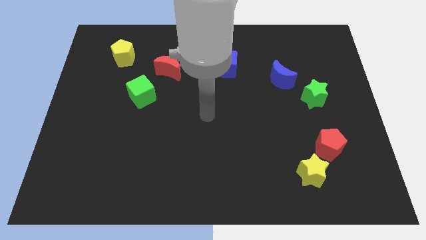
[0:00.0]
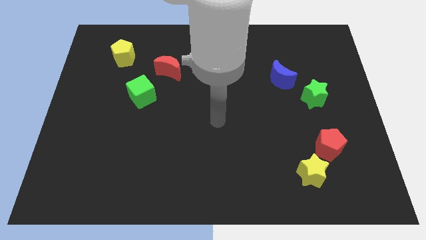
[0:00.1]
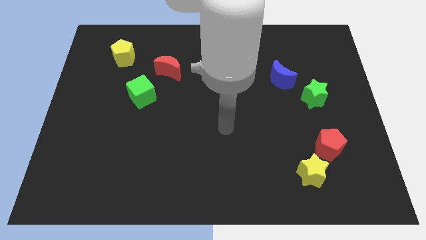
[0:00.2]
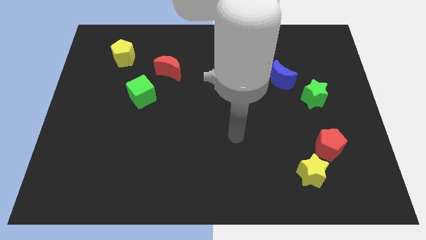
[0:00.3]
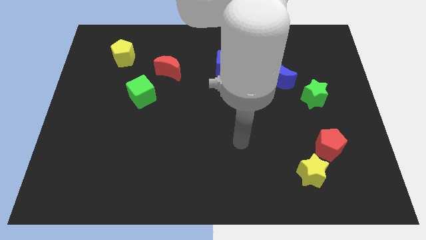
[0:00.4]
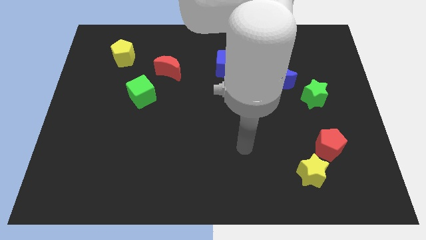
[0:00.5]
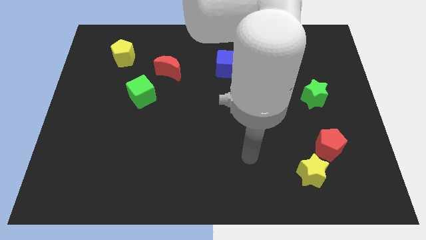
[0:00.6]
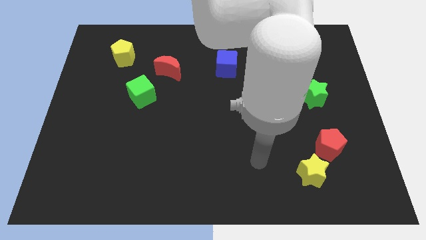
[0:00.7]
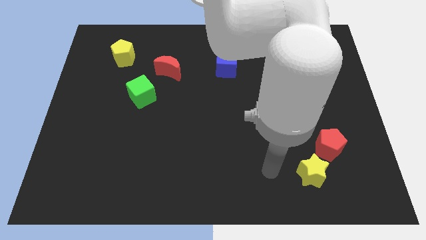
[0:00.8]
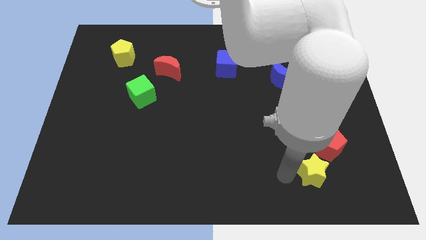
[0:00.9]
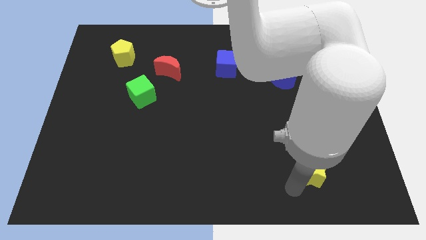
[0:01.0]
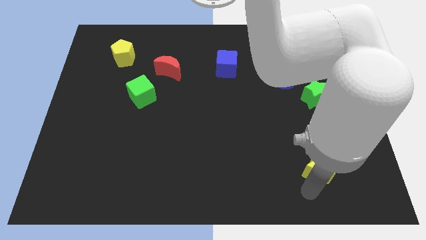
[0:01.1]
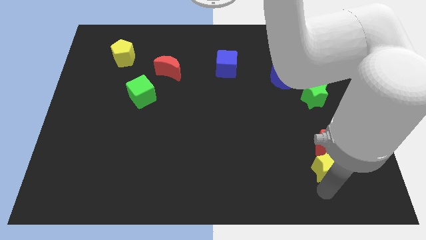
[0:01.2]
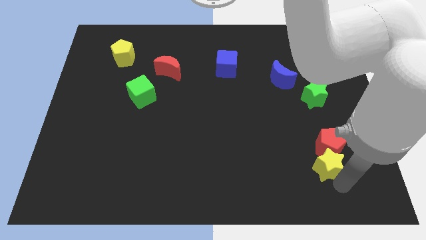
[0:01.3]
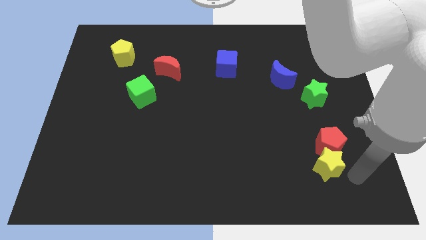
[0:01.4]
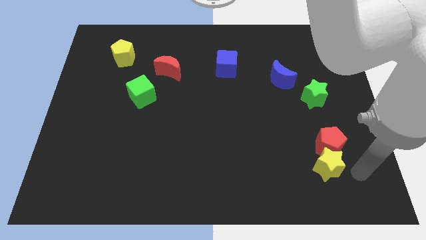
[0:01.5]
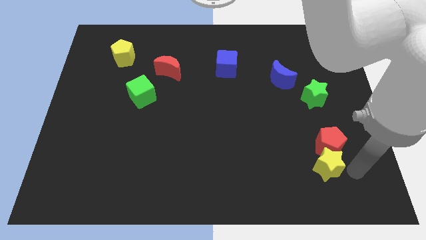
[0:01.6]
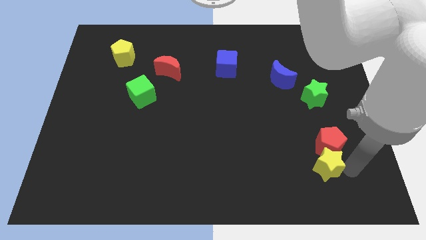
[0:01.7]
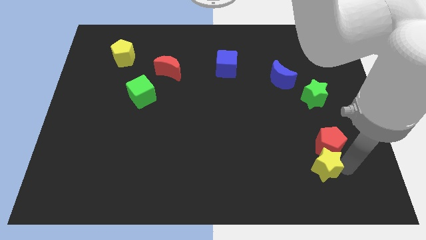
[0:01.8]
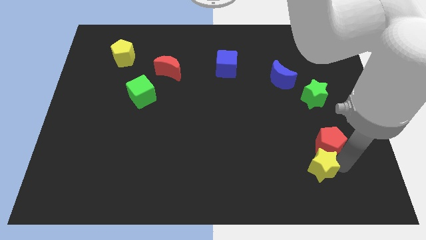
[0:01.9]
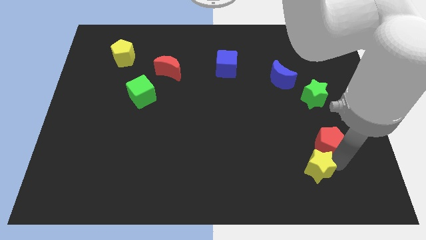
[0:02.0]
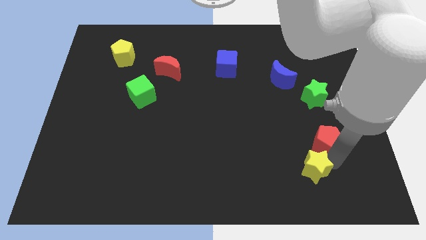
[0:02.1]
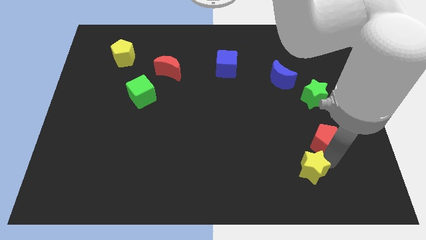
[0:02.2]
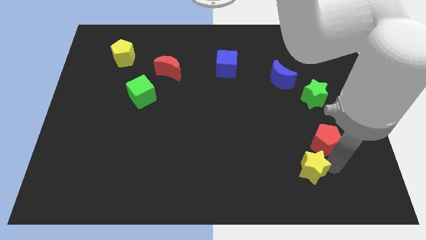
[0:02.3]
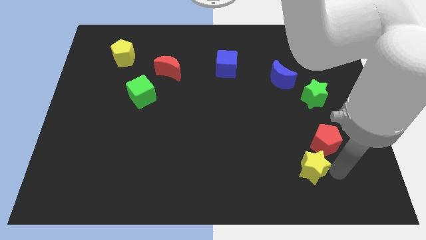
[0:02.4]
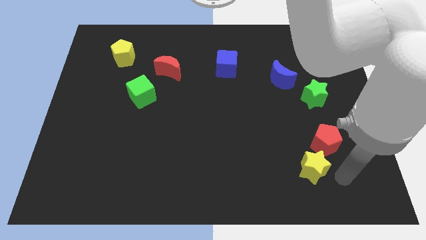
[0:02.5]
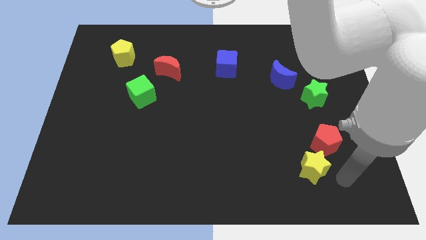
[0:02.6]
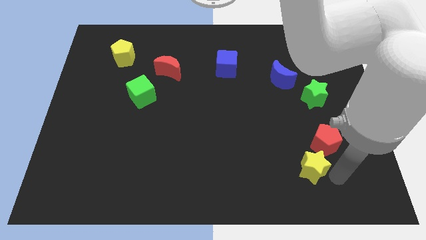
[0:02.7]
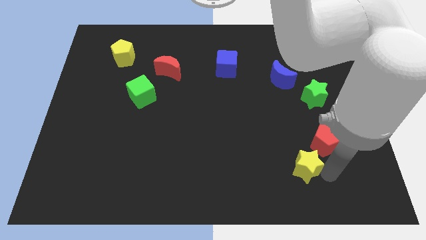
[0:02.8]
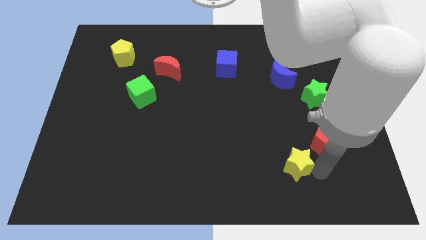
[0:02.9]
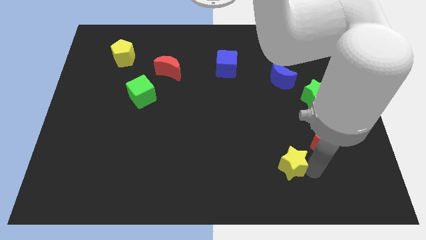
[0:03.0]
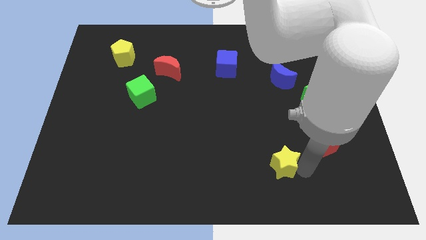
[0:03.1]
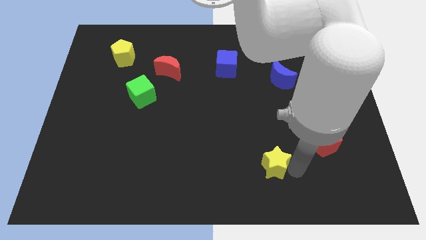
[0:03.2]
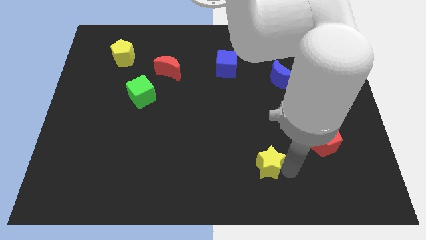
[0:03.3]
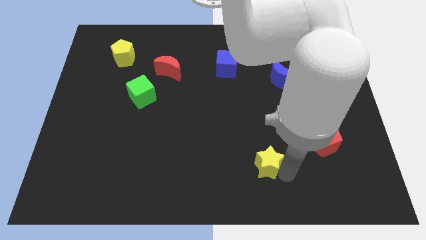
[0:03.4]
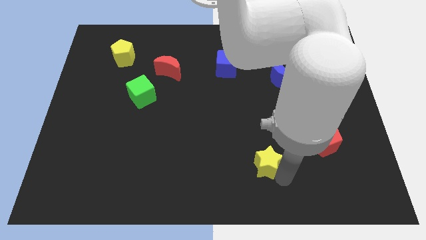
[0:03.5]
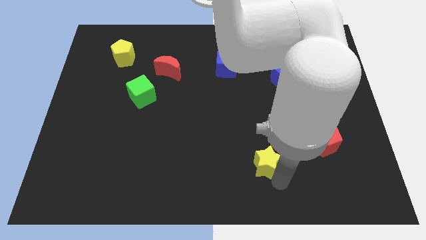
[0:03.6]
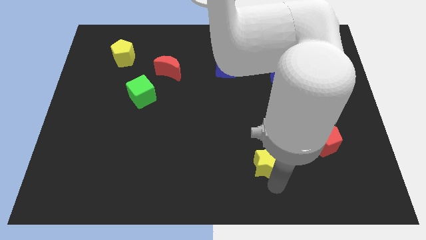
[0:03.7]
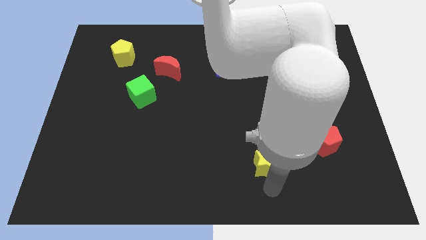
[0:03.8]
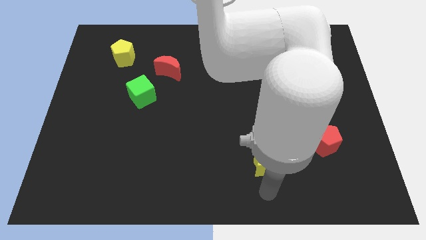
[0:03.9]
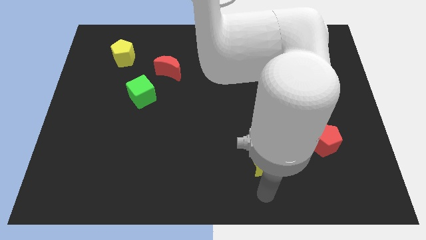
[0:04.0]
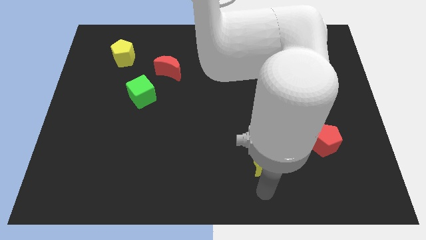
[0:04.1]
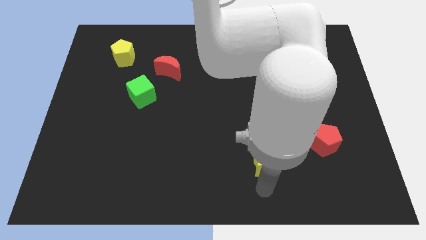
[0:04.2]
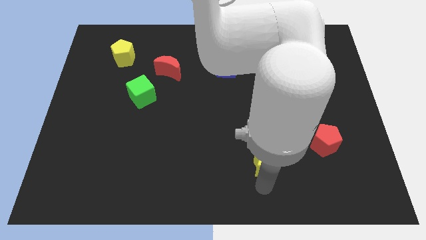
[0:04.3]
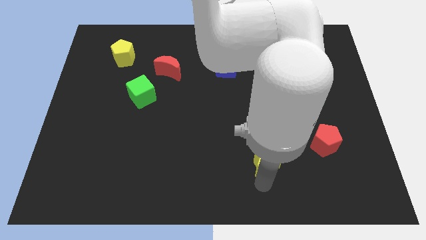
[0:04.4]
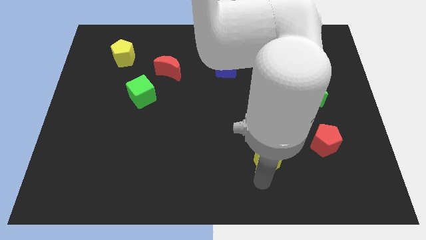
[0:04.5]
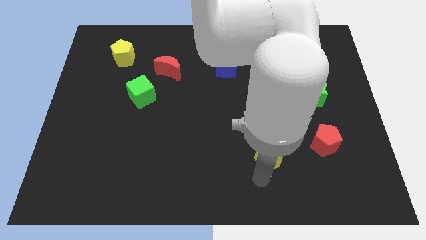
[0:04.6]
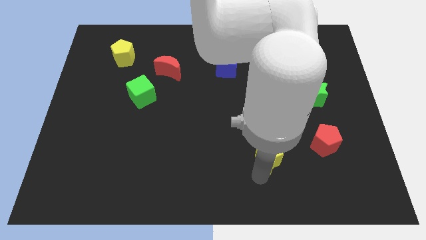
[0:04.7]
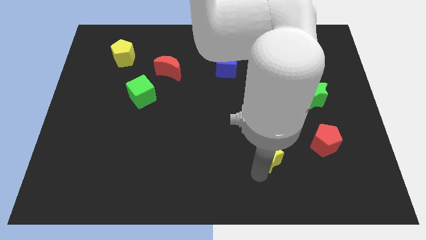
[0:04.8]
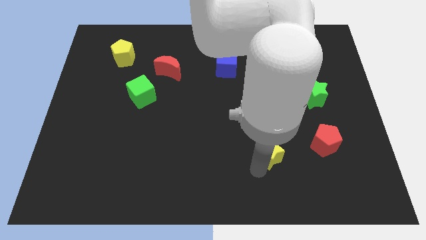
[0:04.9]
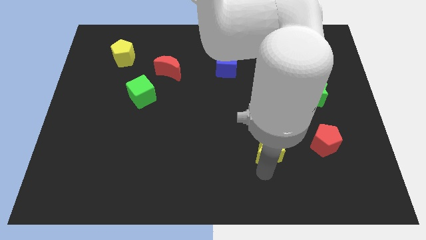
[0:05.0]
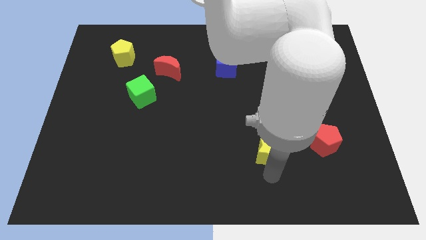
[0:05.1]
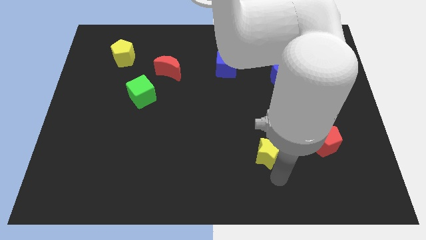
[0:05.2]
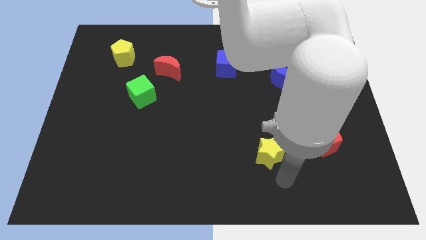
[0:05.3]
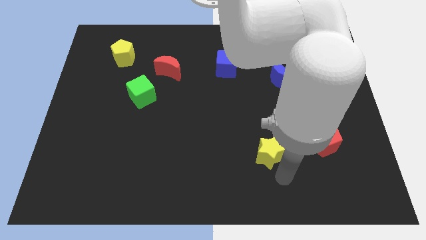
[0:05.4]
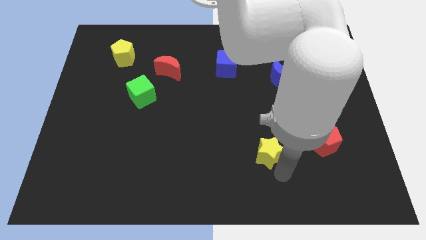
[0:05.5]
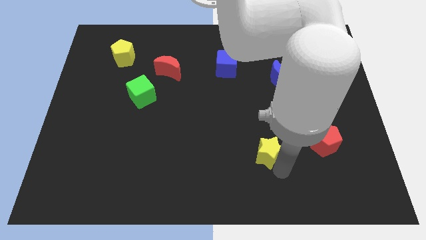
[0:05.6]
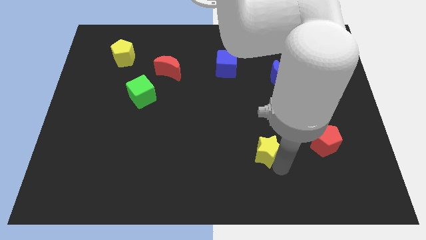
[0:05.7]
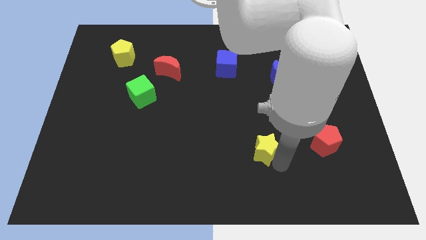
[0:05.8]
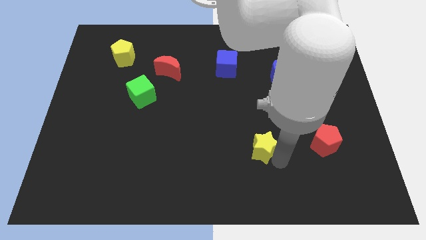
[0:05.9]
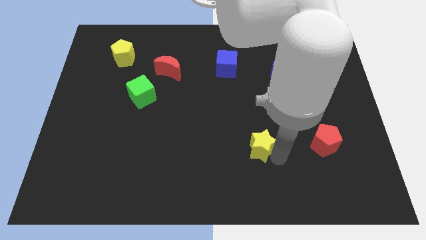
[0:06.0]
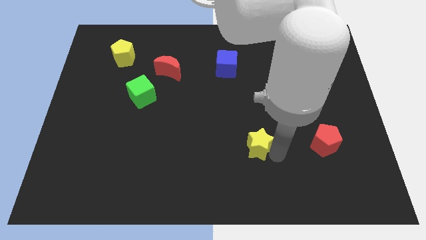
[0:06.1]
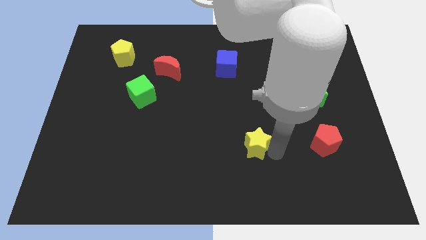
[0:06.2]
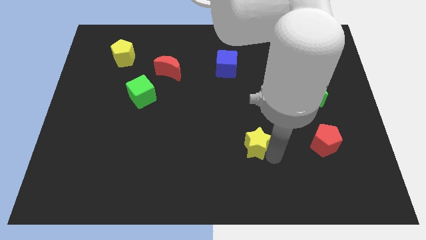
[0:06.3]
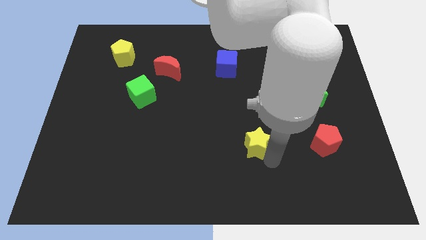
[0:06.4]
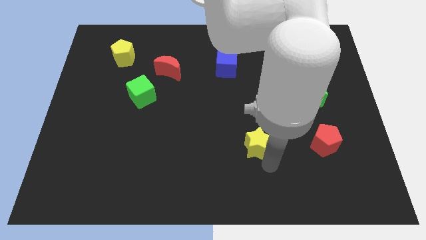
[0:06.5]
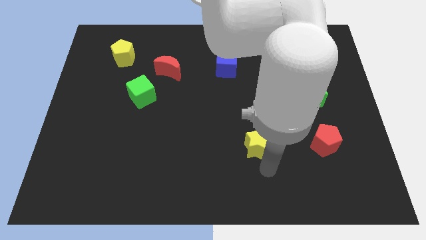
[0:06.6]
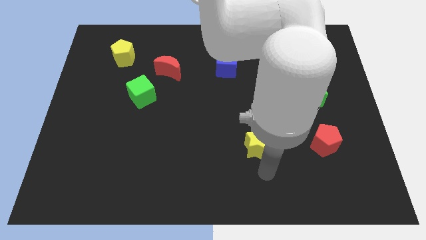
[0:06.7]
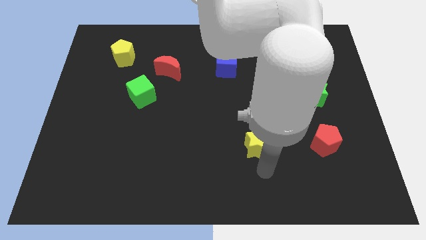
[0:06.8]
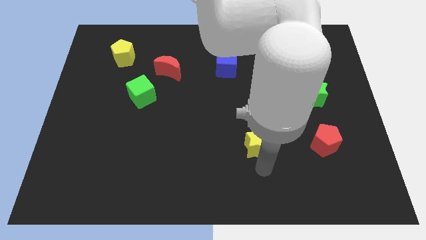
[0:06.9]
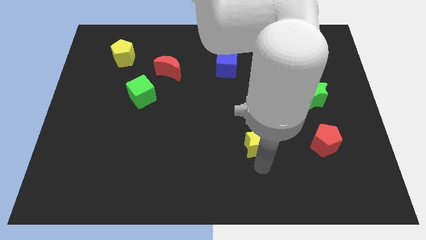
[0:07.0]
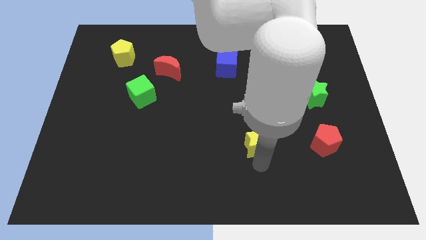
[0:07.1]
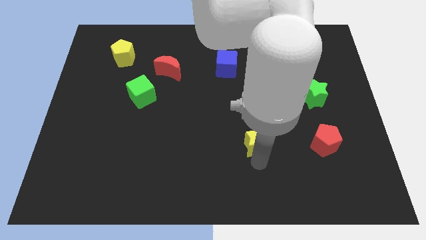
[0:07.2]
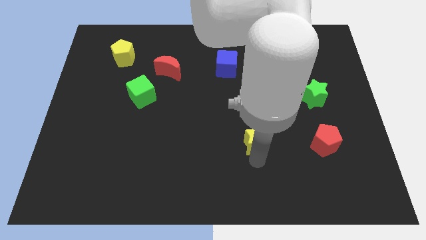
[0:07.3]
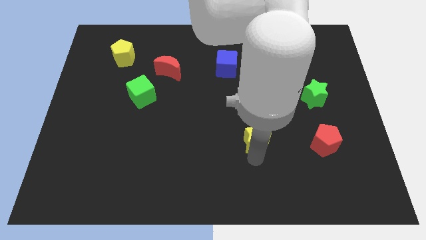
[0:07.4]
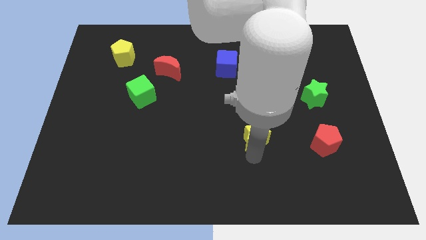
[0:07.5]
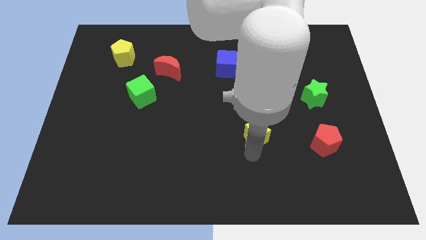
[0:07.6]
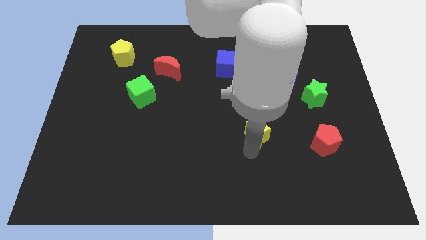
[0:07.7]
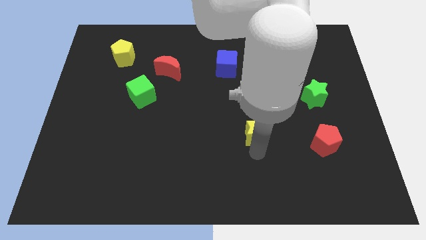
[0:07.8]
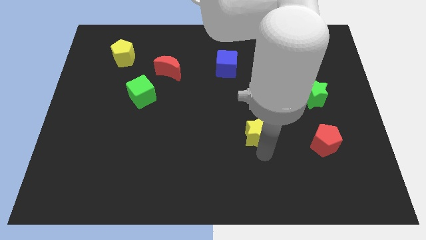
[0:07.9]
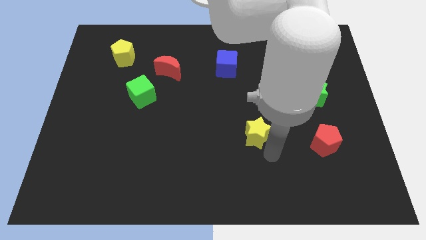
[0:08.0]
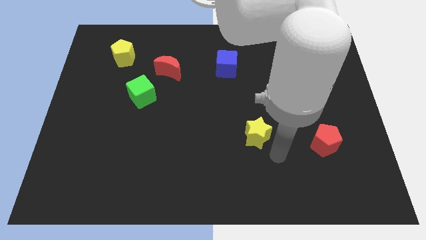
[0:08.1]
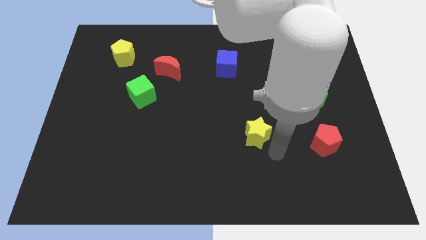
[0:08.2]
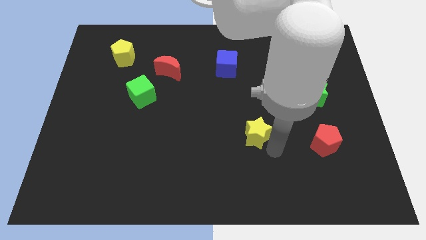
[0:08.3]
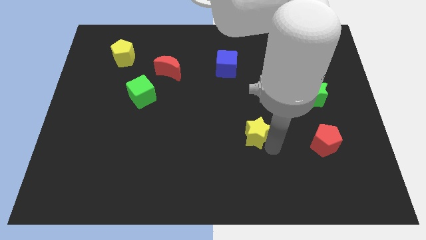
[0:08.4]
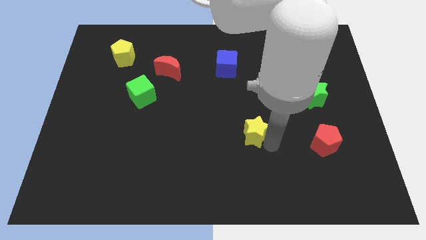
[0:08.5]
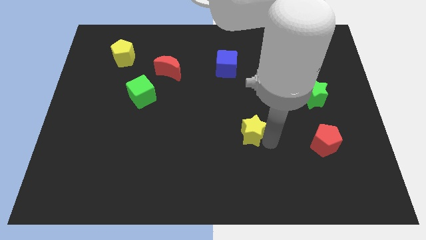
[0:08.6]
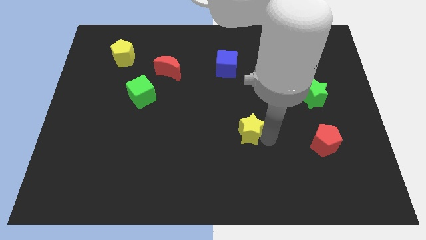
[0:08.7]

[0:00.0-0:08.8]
move the yellow star to the center
